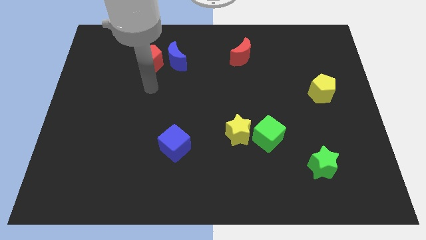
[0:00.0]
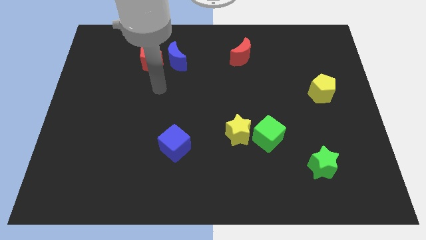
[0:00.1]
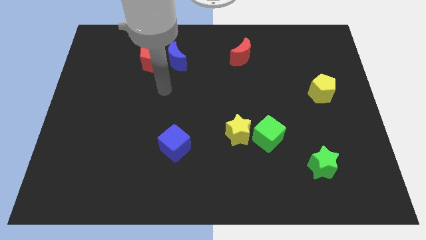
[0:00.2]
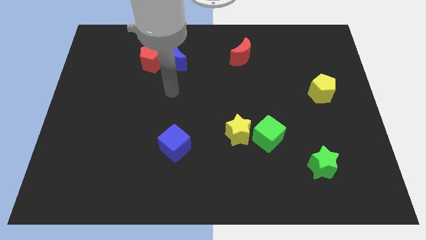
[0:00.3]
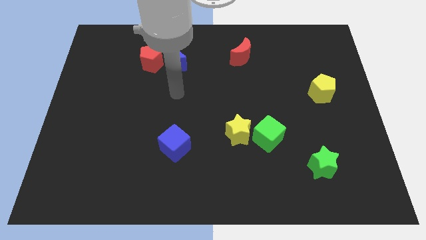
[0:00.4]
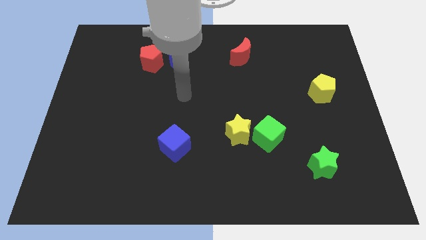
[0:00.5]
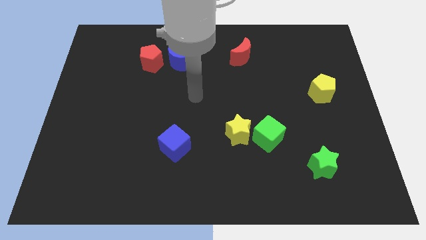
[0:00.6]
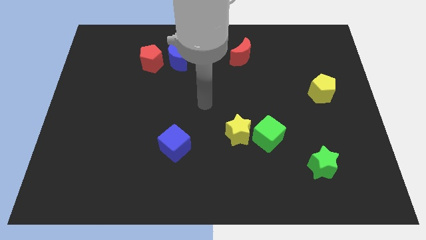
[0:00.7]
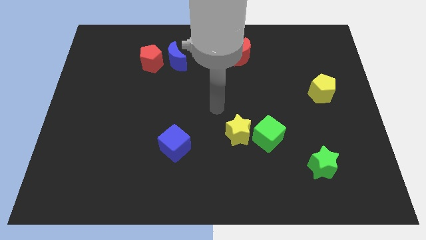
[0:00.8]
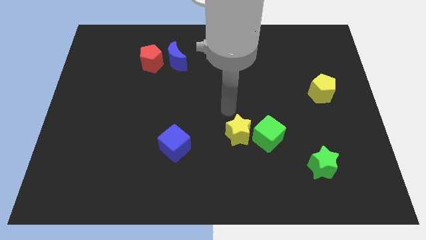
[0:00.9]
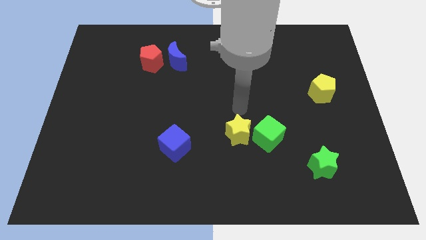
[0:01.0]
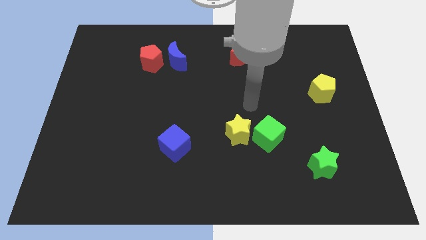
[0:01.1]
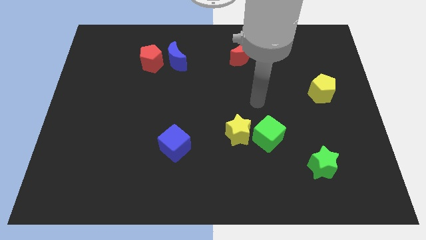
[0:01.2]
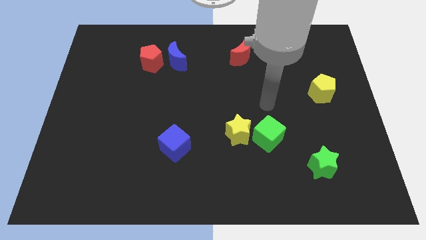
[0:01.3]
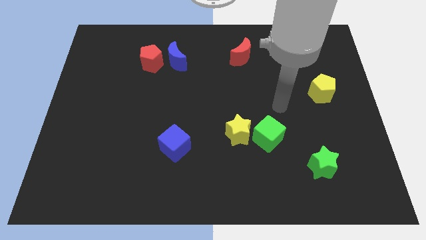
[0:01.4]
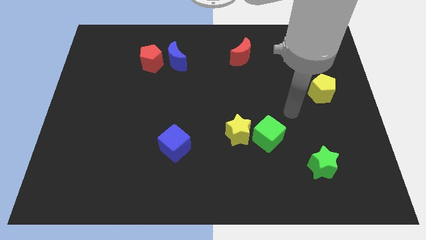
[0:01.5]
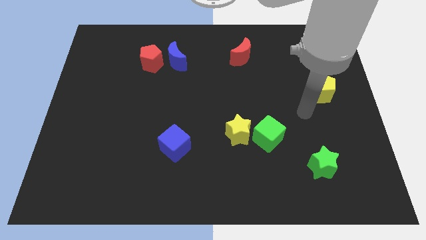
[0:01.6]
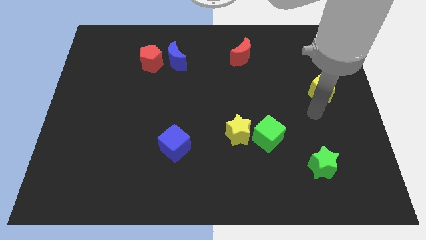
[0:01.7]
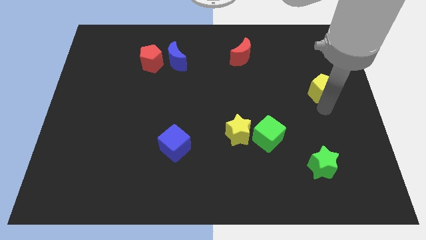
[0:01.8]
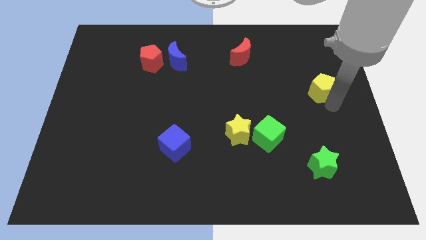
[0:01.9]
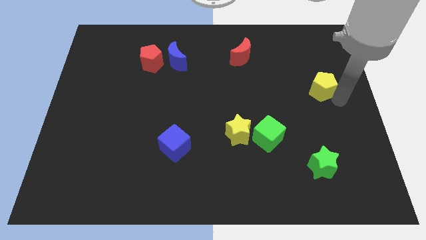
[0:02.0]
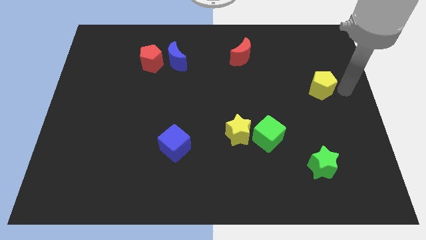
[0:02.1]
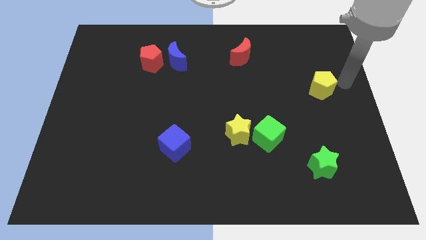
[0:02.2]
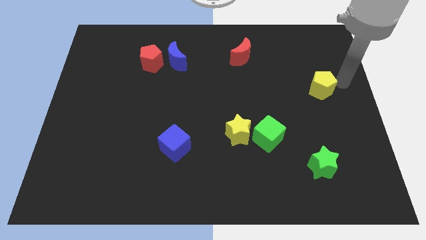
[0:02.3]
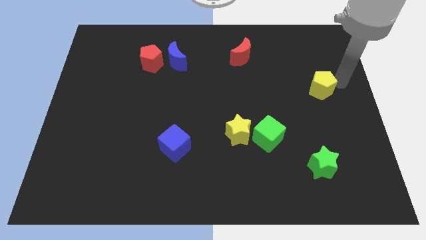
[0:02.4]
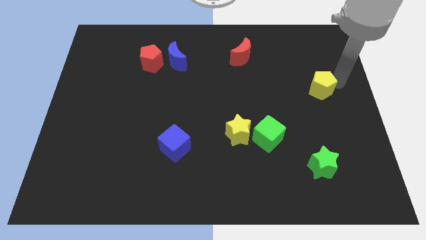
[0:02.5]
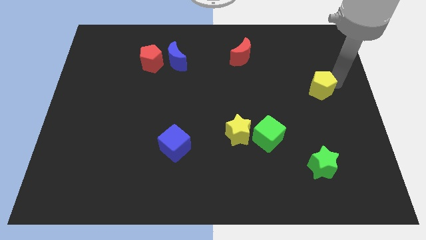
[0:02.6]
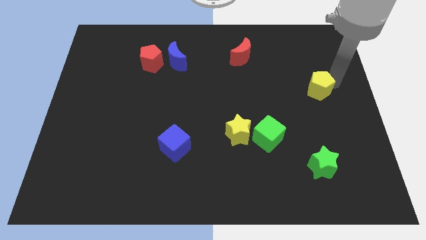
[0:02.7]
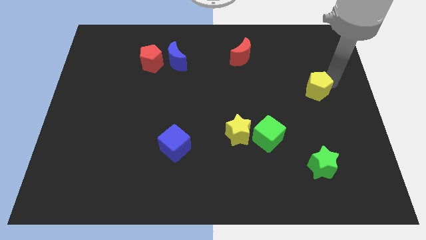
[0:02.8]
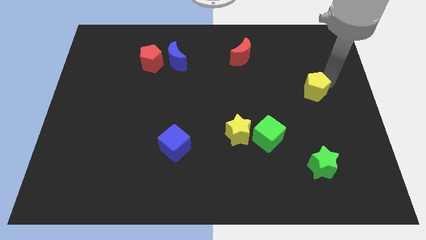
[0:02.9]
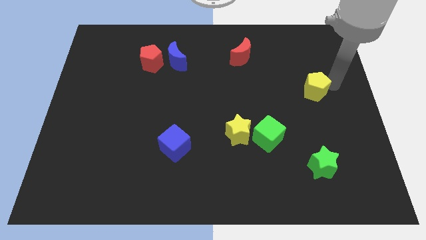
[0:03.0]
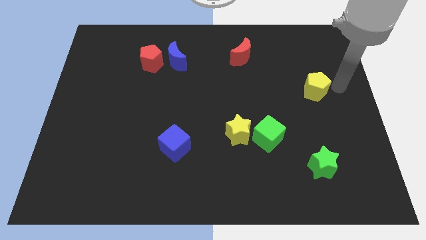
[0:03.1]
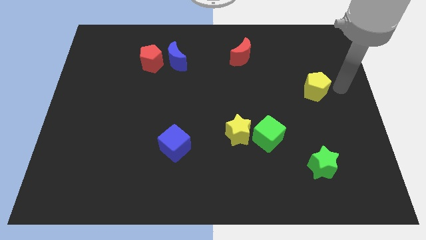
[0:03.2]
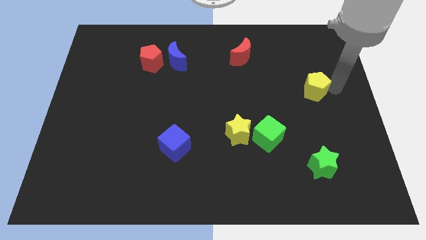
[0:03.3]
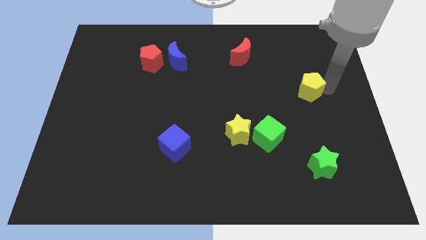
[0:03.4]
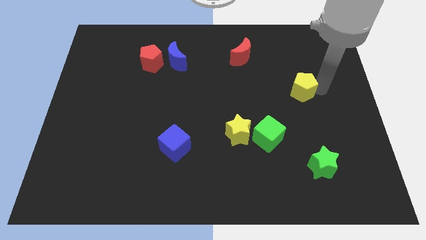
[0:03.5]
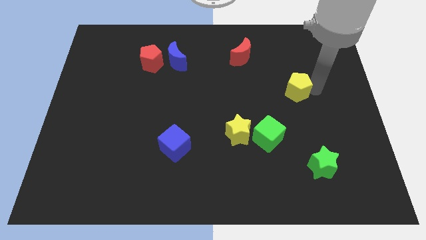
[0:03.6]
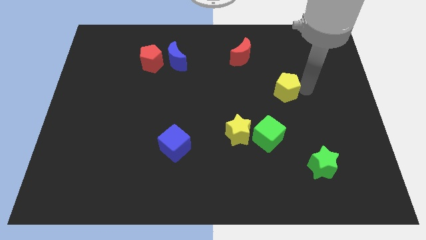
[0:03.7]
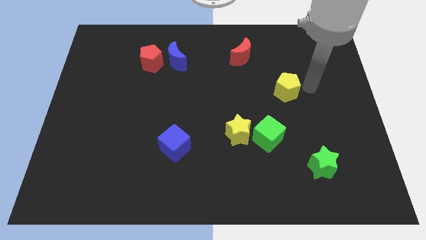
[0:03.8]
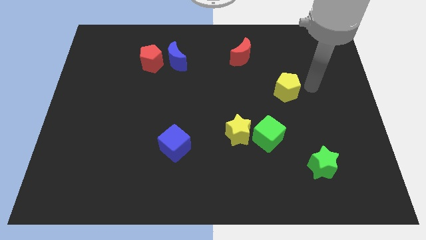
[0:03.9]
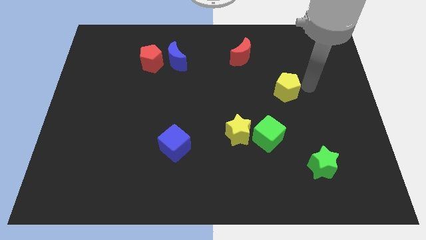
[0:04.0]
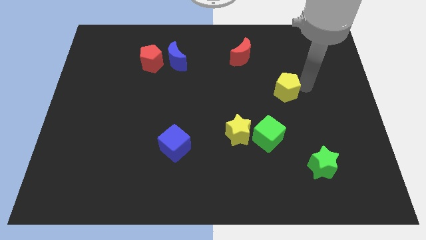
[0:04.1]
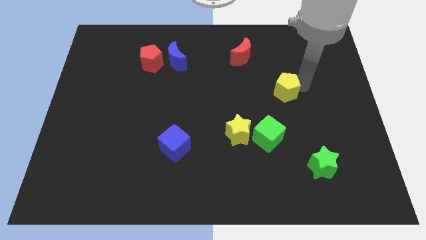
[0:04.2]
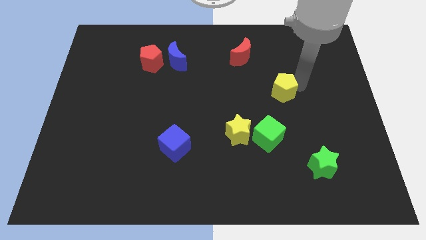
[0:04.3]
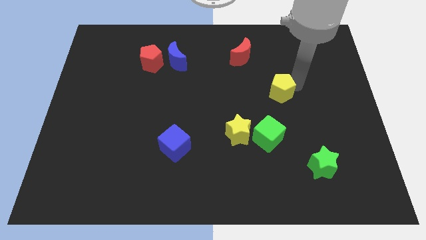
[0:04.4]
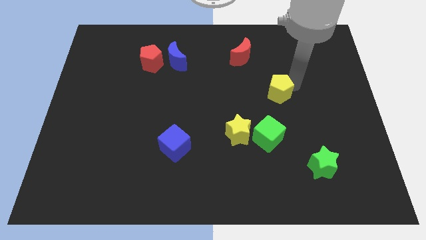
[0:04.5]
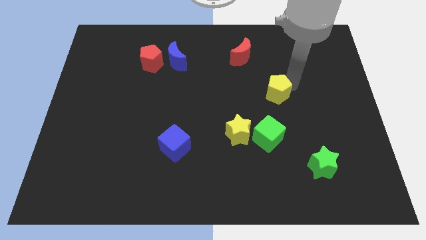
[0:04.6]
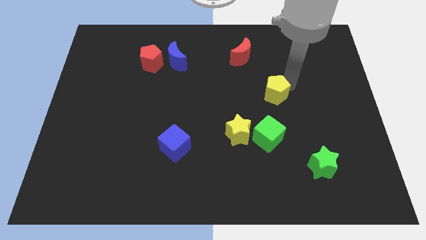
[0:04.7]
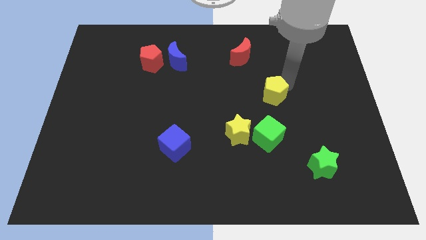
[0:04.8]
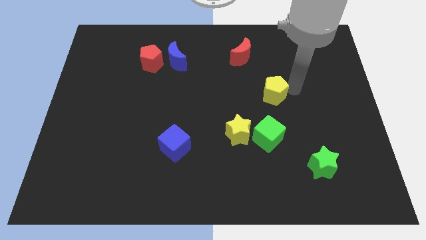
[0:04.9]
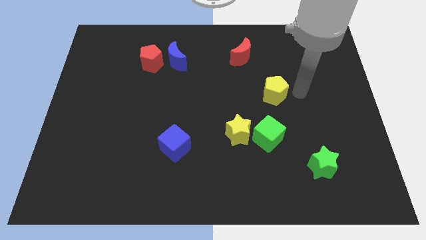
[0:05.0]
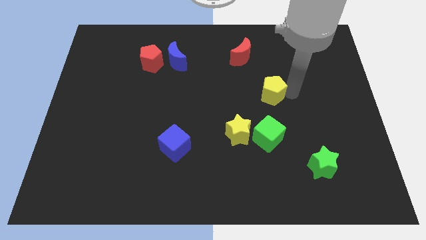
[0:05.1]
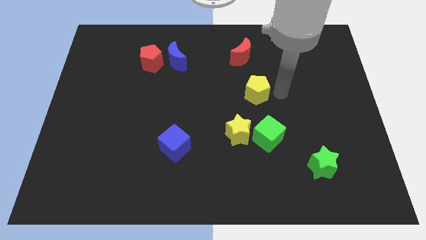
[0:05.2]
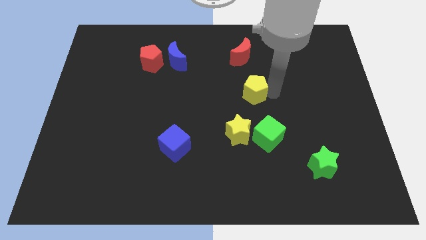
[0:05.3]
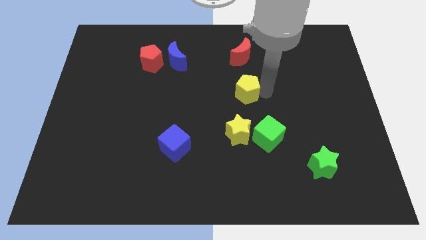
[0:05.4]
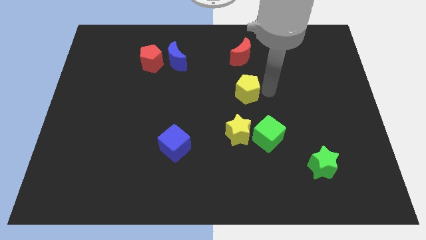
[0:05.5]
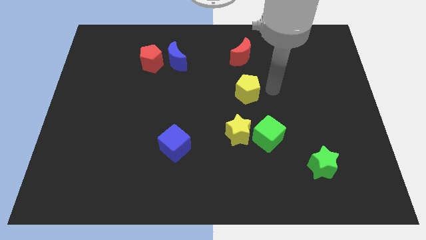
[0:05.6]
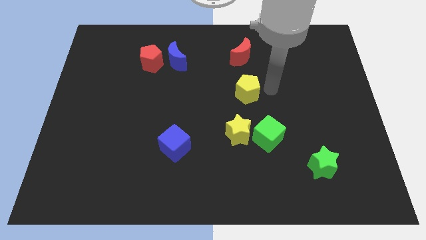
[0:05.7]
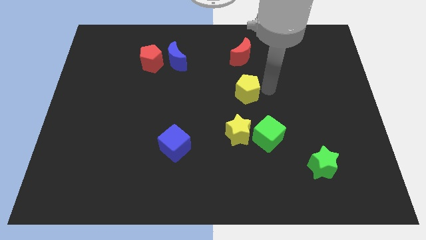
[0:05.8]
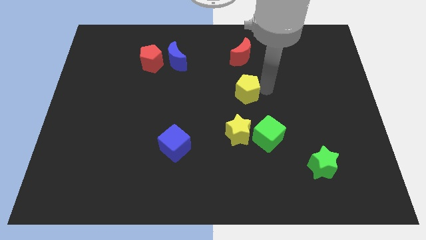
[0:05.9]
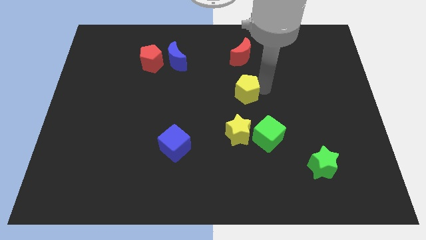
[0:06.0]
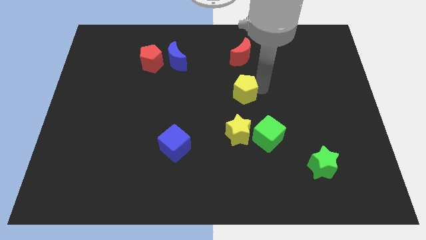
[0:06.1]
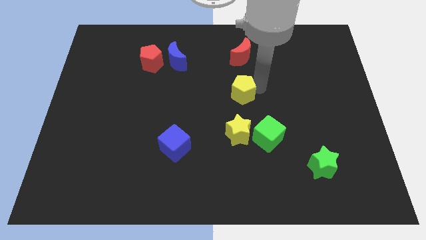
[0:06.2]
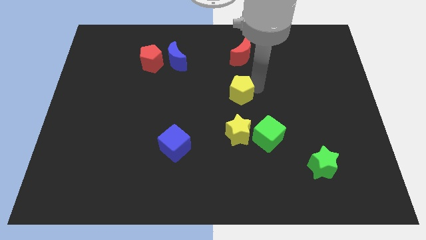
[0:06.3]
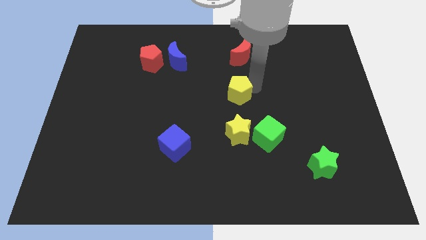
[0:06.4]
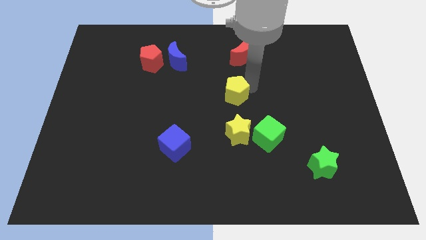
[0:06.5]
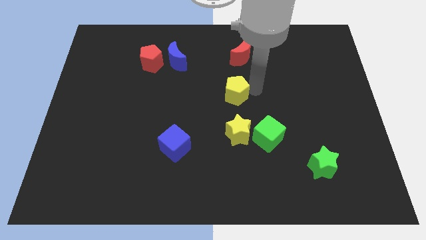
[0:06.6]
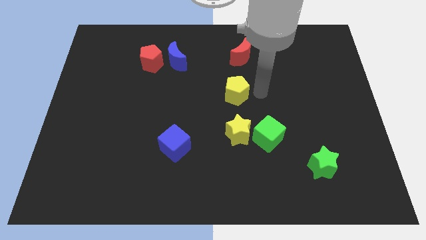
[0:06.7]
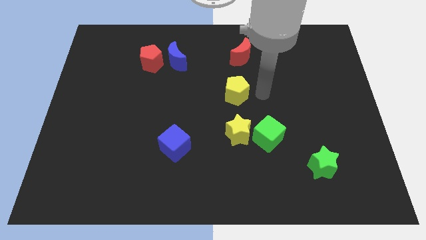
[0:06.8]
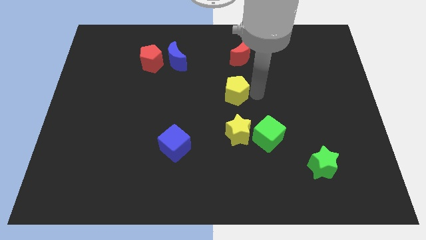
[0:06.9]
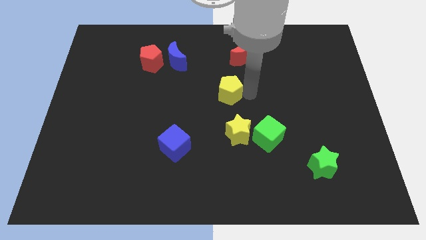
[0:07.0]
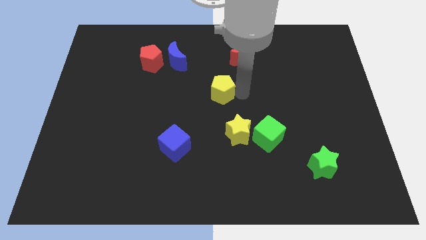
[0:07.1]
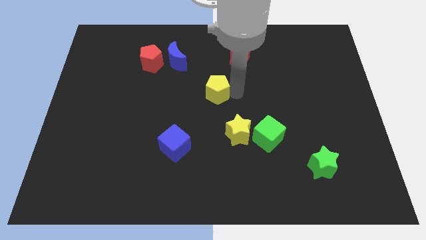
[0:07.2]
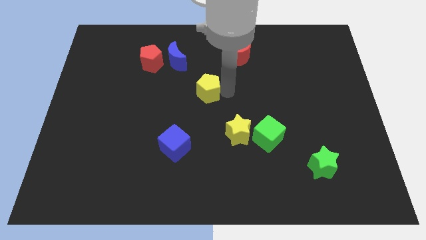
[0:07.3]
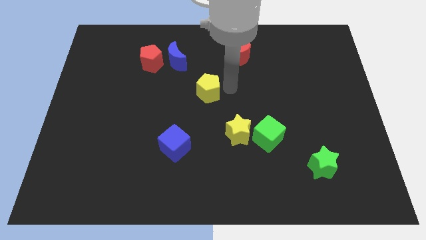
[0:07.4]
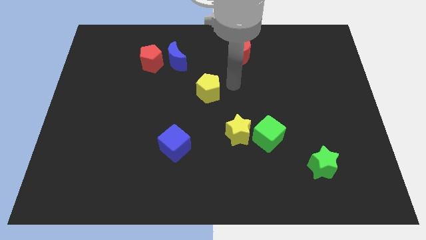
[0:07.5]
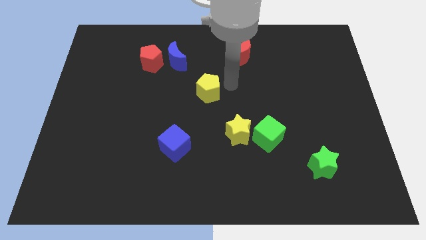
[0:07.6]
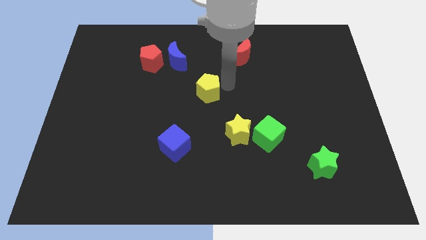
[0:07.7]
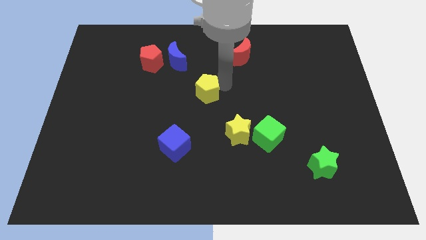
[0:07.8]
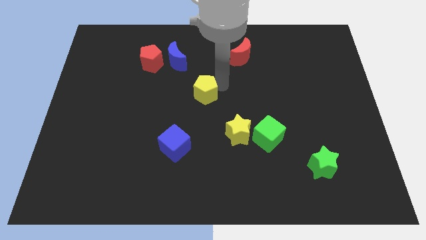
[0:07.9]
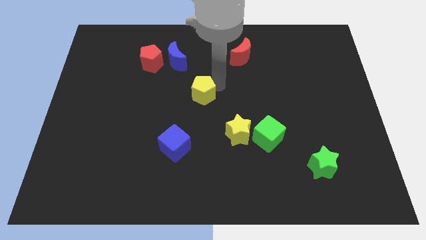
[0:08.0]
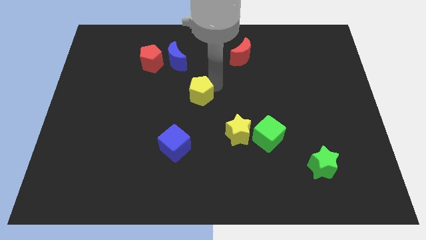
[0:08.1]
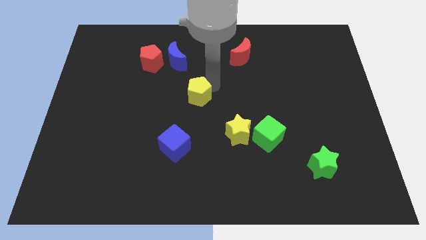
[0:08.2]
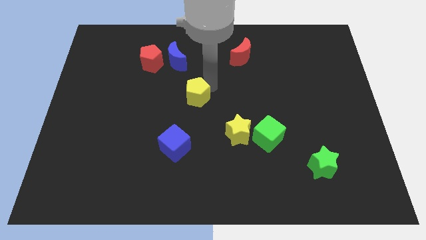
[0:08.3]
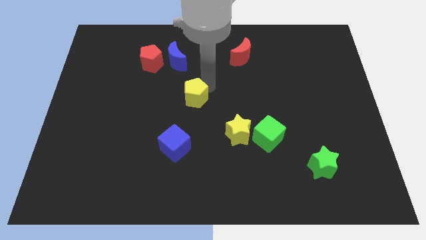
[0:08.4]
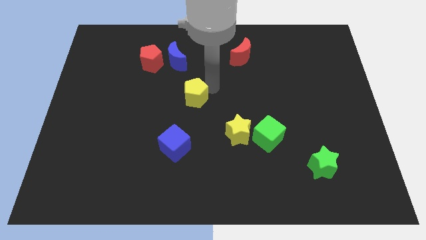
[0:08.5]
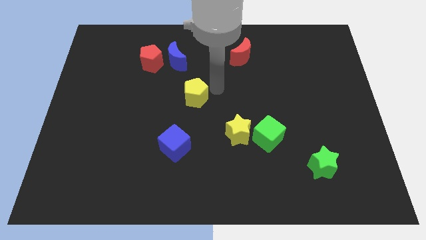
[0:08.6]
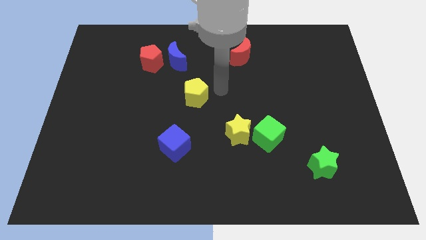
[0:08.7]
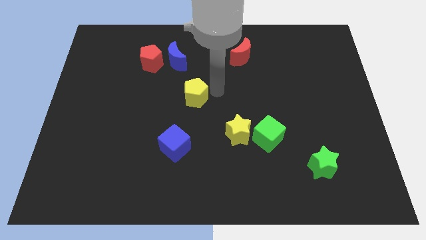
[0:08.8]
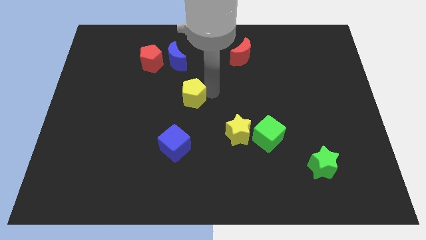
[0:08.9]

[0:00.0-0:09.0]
push the yellow pentagon below the blue moon
